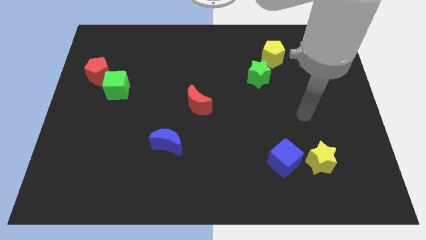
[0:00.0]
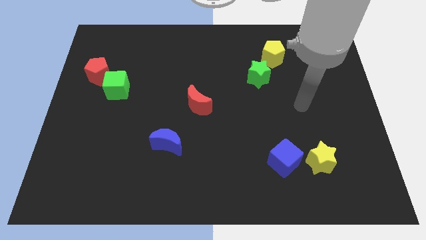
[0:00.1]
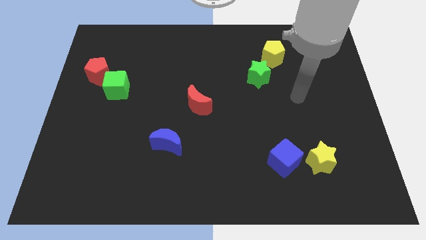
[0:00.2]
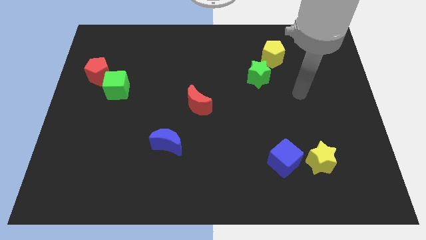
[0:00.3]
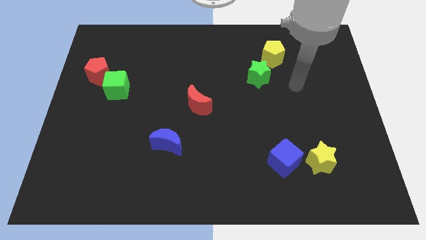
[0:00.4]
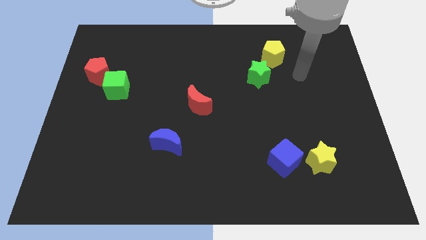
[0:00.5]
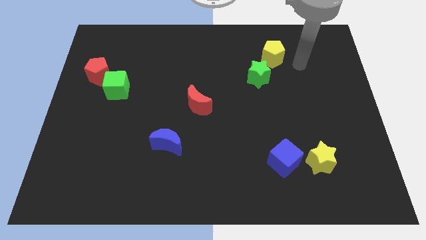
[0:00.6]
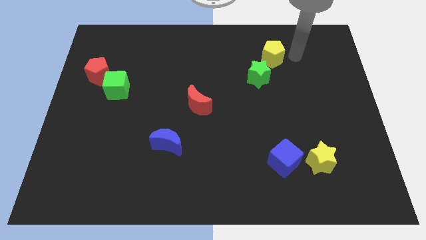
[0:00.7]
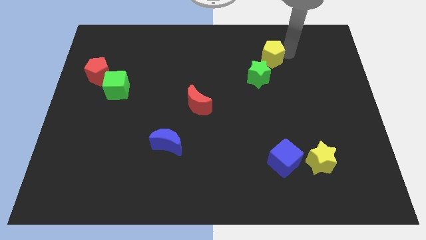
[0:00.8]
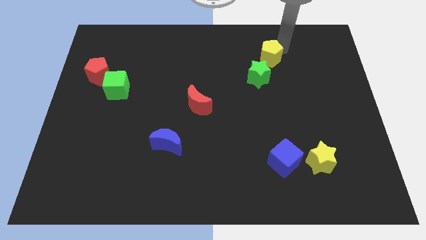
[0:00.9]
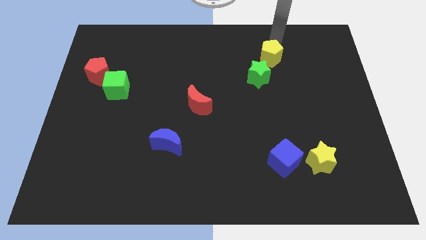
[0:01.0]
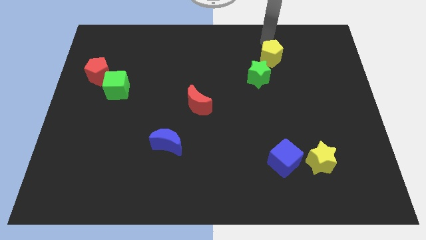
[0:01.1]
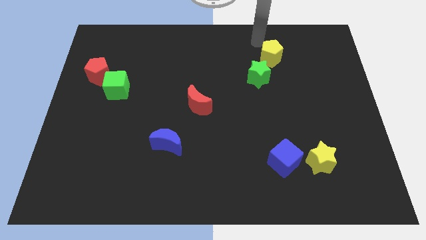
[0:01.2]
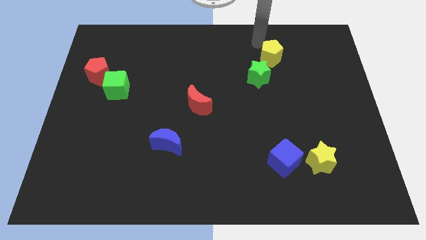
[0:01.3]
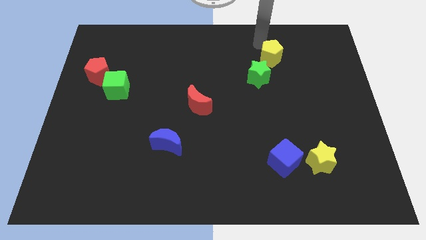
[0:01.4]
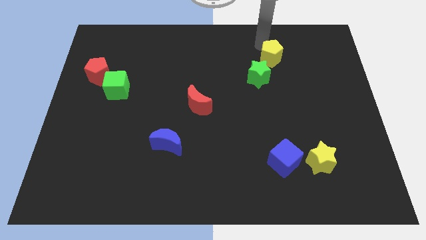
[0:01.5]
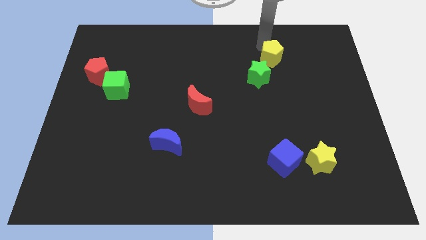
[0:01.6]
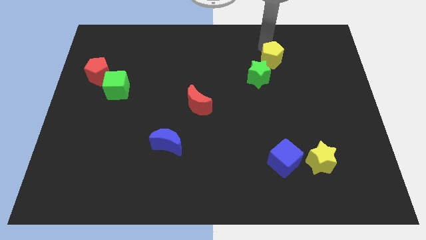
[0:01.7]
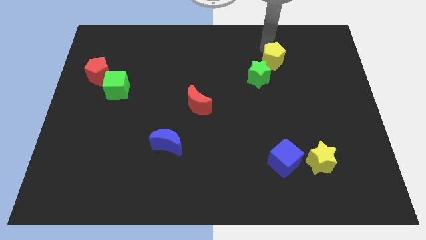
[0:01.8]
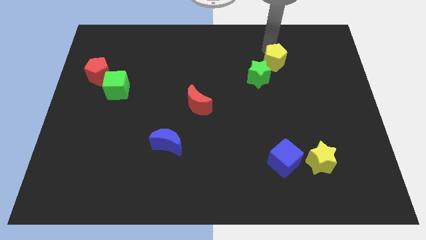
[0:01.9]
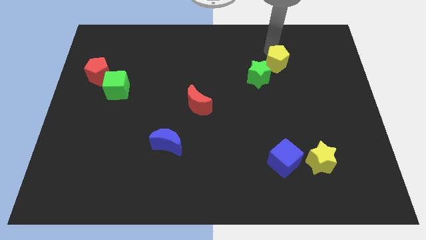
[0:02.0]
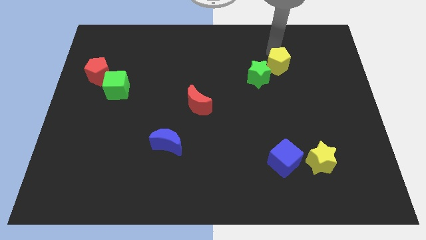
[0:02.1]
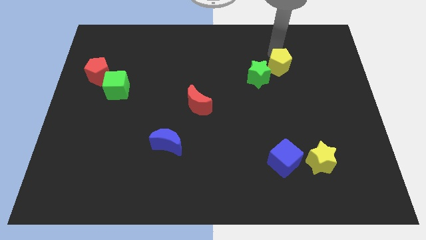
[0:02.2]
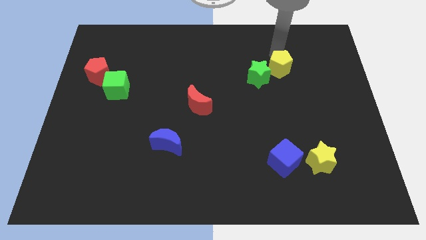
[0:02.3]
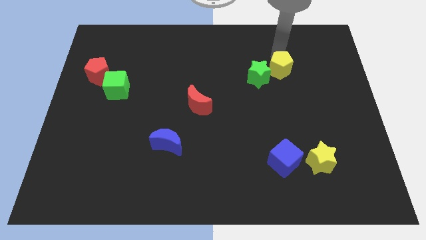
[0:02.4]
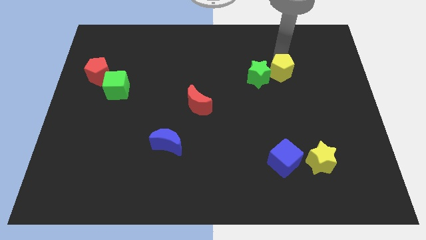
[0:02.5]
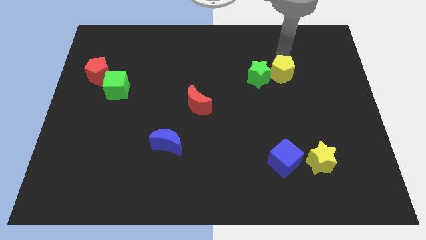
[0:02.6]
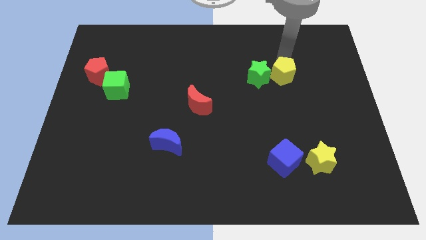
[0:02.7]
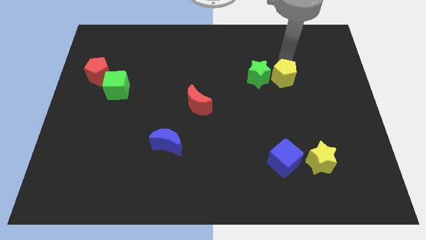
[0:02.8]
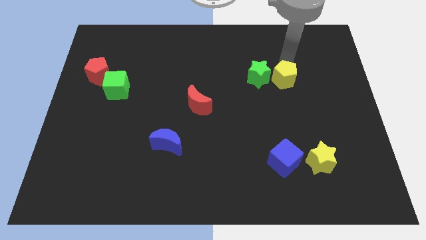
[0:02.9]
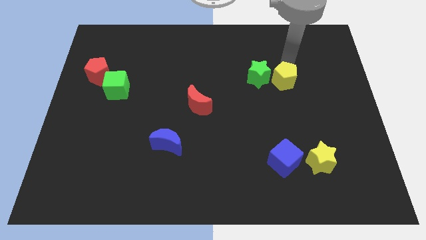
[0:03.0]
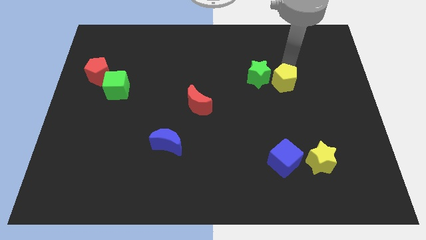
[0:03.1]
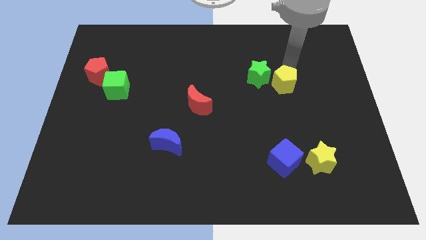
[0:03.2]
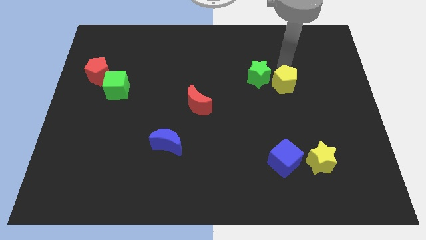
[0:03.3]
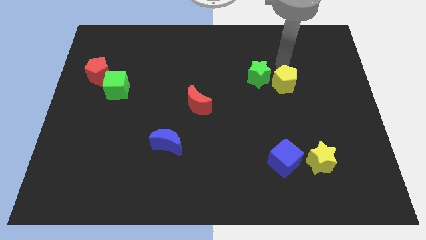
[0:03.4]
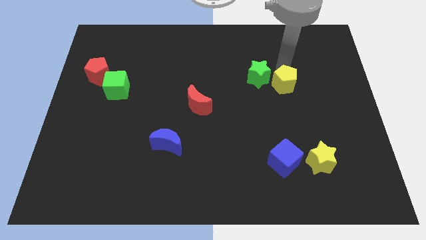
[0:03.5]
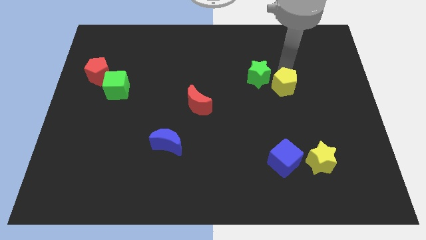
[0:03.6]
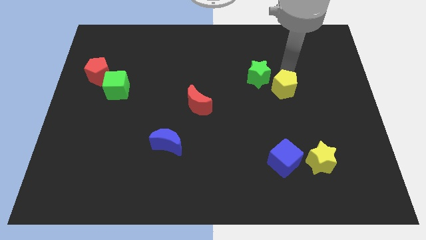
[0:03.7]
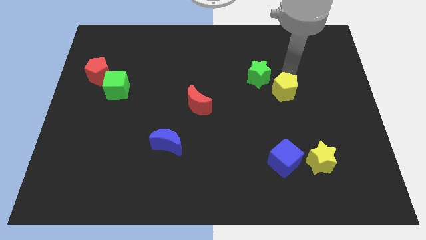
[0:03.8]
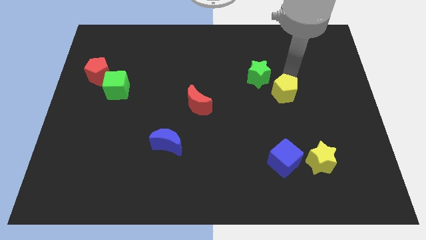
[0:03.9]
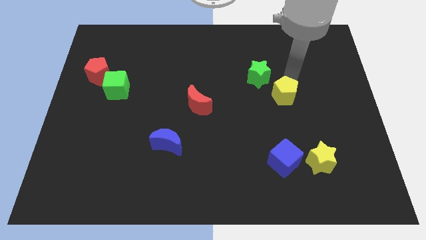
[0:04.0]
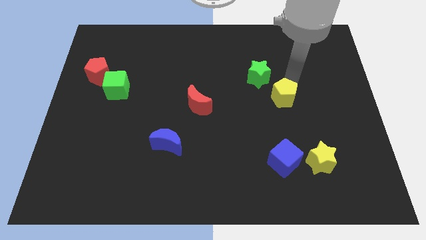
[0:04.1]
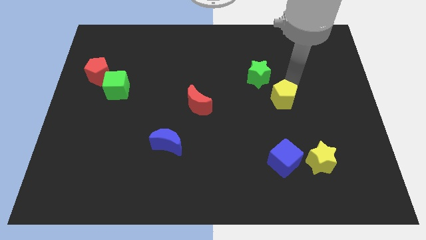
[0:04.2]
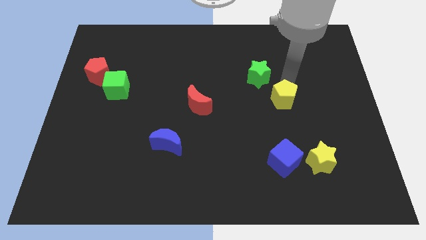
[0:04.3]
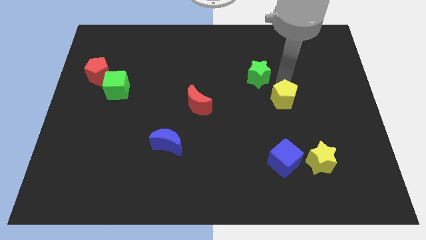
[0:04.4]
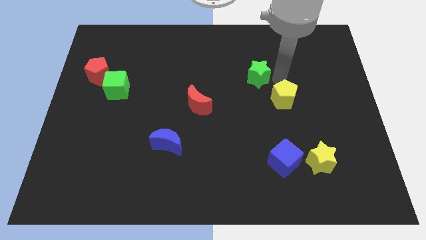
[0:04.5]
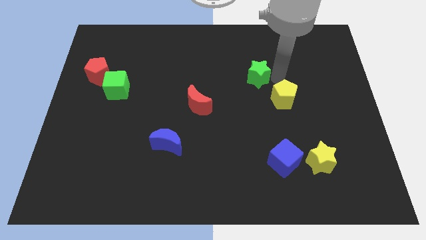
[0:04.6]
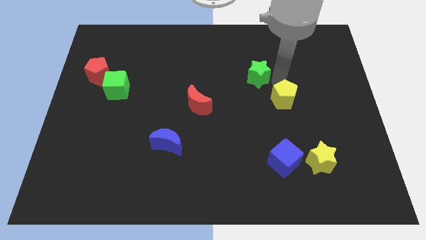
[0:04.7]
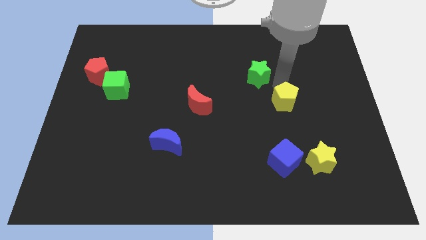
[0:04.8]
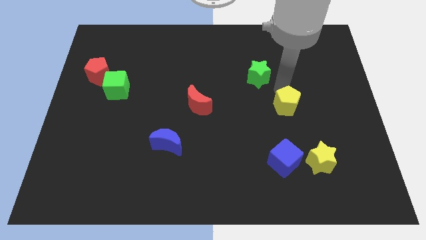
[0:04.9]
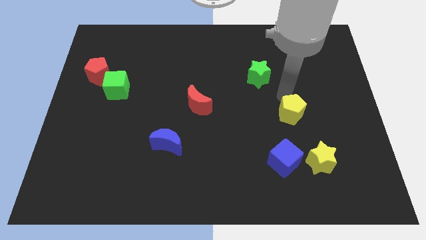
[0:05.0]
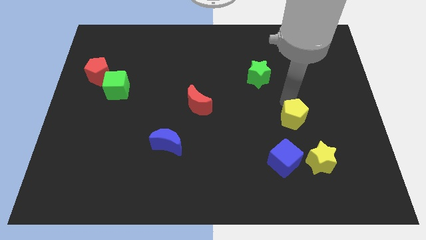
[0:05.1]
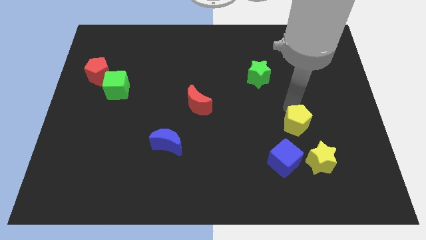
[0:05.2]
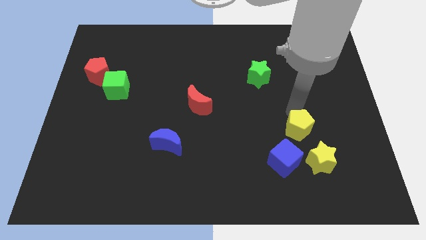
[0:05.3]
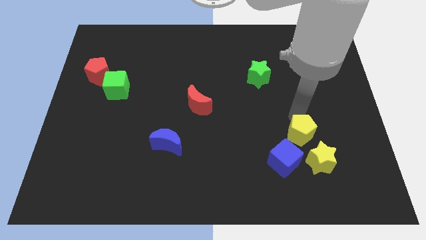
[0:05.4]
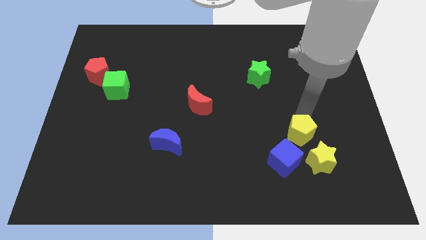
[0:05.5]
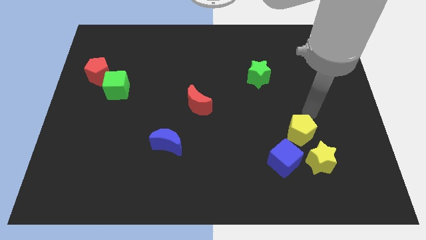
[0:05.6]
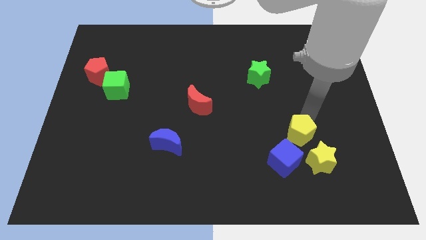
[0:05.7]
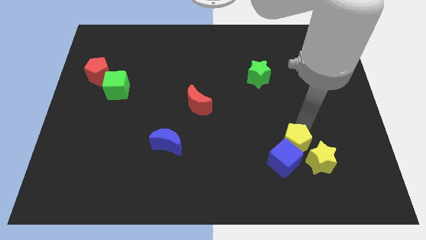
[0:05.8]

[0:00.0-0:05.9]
push the yellow pentagon towards the blue cube

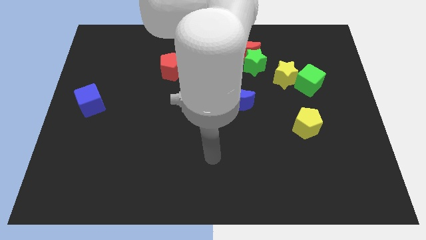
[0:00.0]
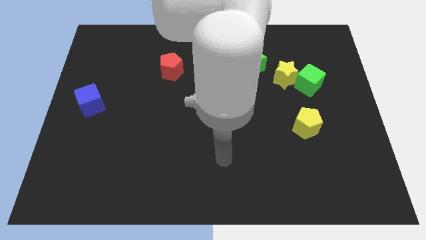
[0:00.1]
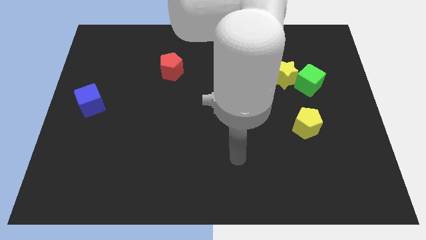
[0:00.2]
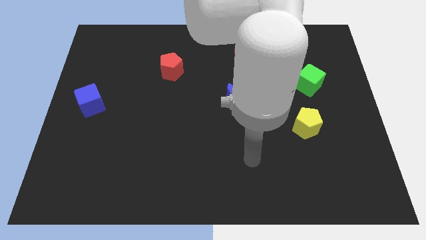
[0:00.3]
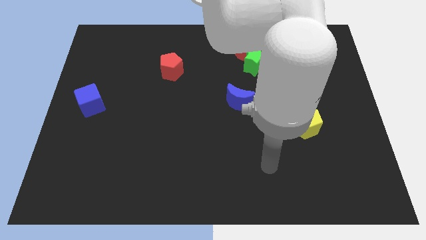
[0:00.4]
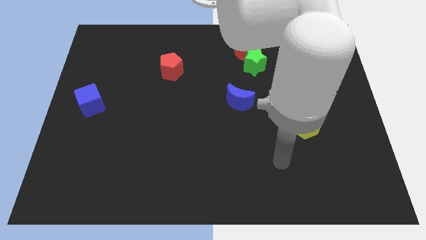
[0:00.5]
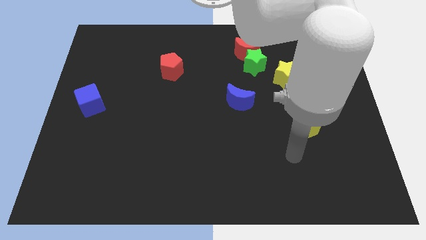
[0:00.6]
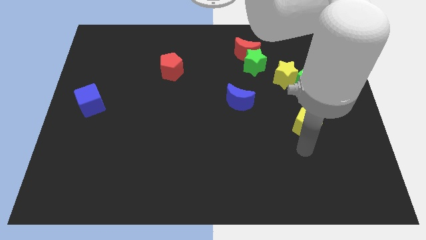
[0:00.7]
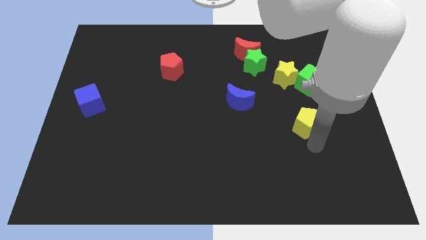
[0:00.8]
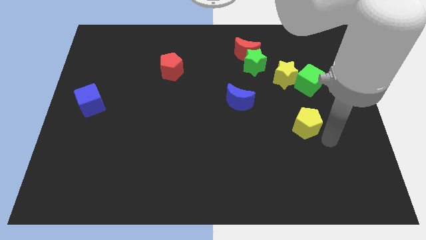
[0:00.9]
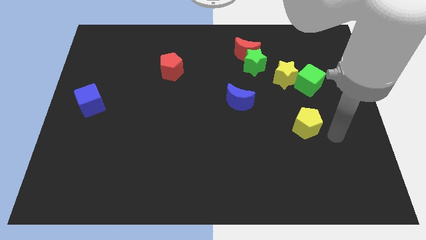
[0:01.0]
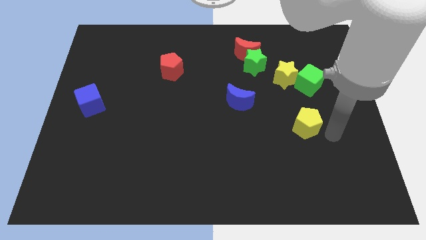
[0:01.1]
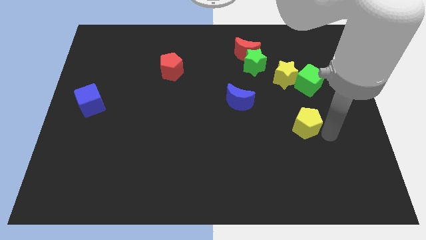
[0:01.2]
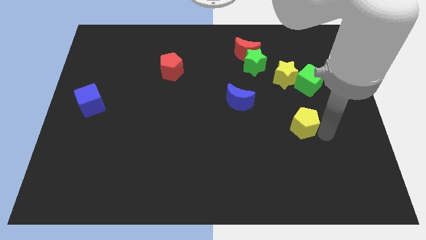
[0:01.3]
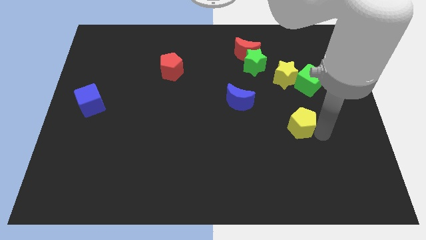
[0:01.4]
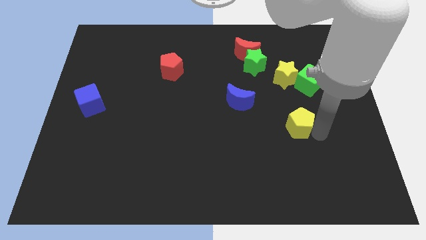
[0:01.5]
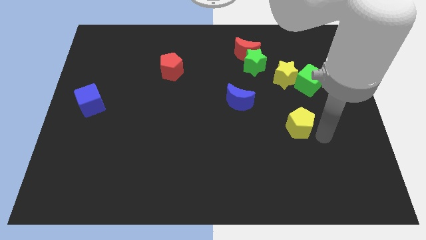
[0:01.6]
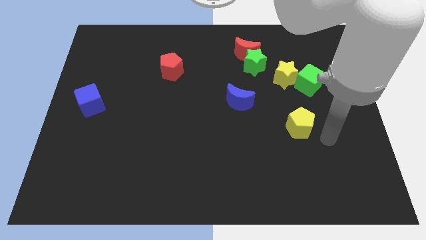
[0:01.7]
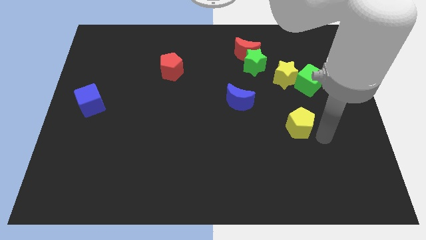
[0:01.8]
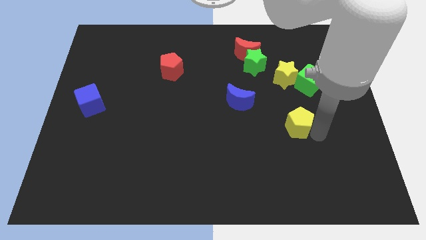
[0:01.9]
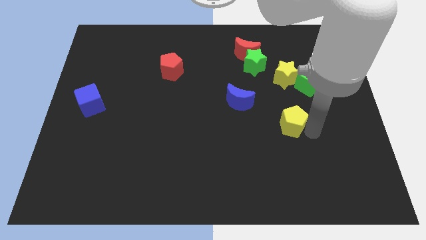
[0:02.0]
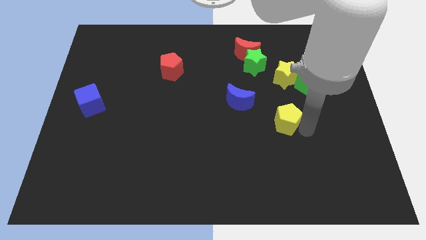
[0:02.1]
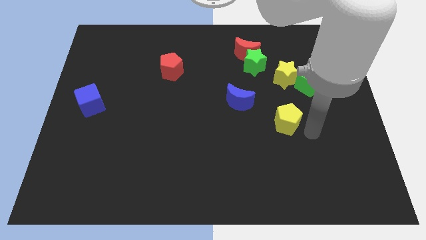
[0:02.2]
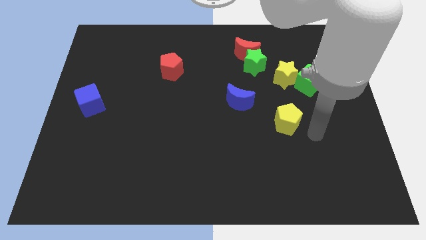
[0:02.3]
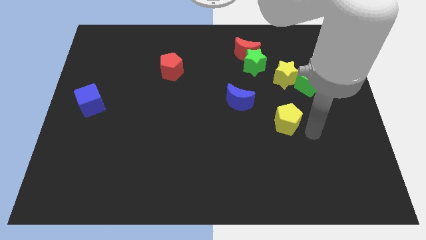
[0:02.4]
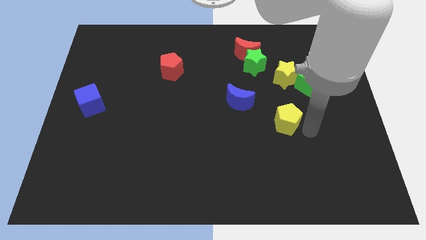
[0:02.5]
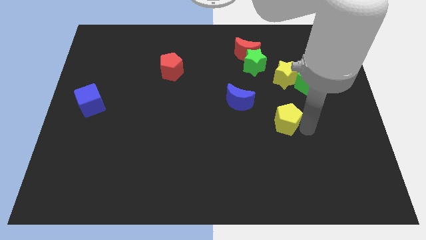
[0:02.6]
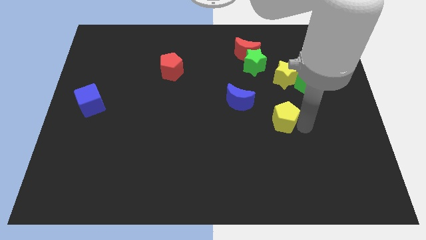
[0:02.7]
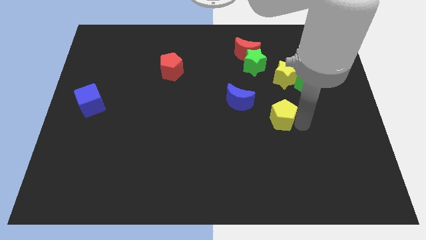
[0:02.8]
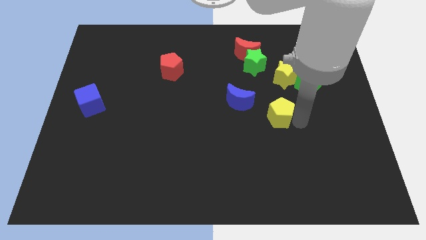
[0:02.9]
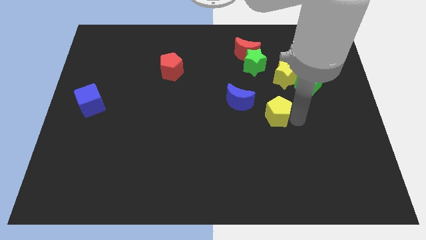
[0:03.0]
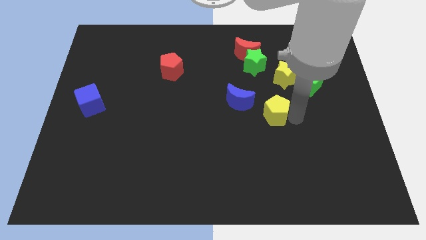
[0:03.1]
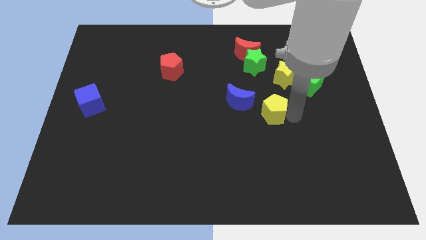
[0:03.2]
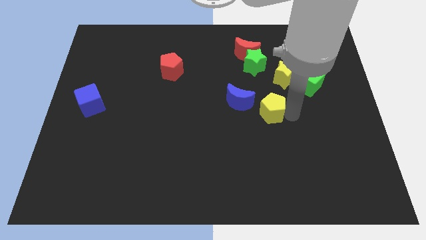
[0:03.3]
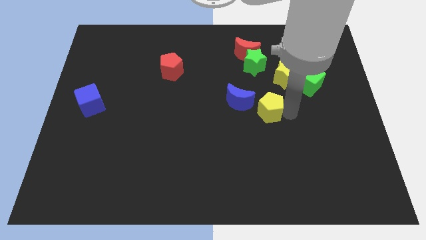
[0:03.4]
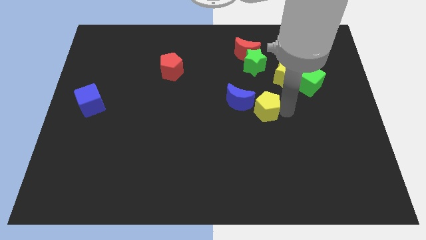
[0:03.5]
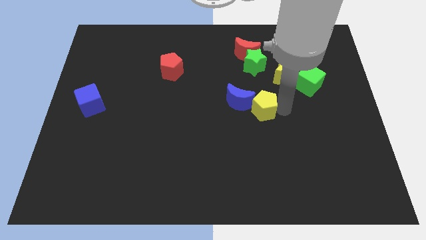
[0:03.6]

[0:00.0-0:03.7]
put the yellow pentagon towards the blue moon
